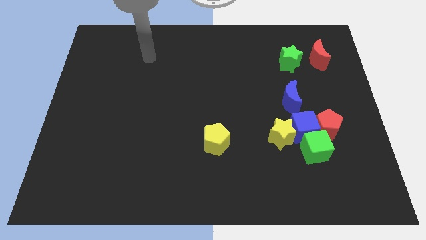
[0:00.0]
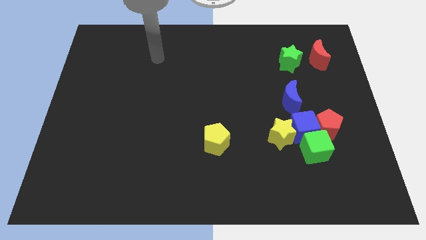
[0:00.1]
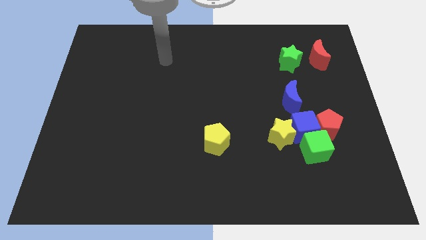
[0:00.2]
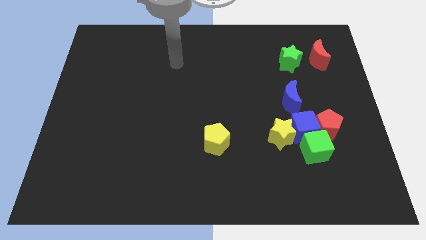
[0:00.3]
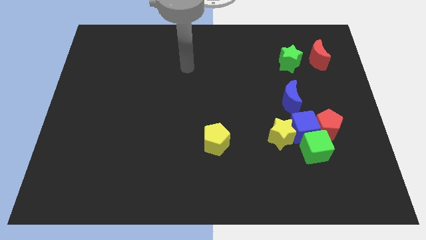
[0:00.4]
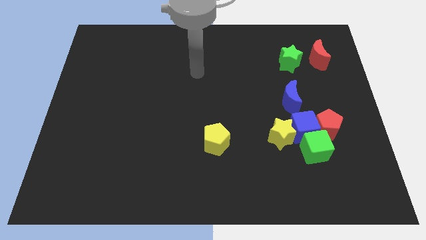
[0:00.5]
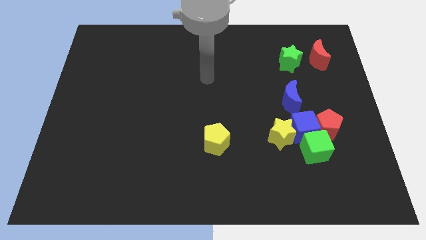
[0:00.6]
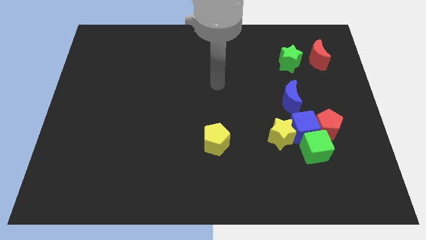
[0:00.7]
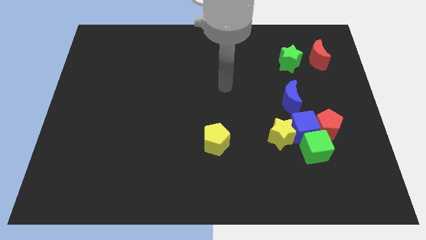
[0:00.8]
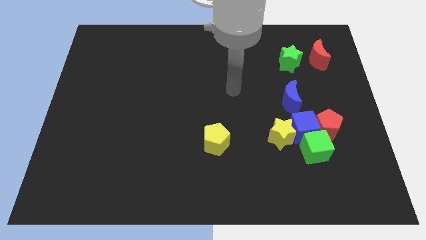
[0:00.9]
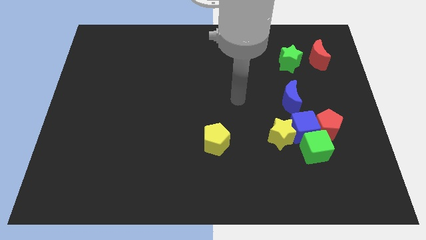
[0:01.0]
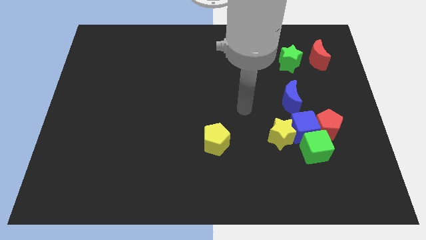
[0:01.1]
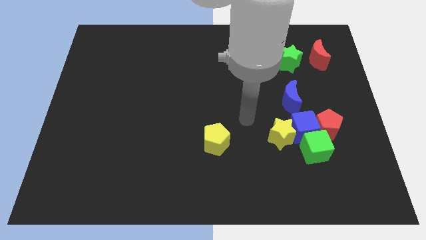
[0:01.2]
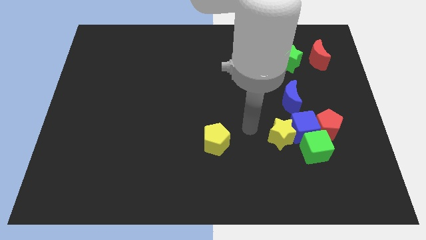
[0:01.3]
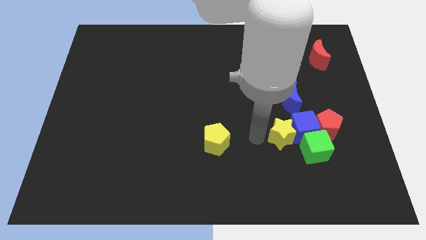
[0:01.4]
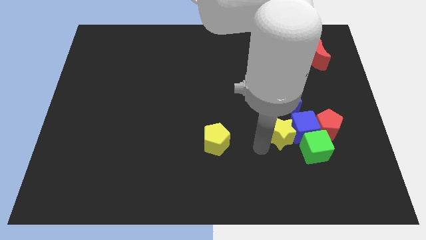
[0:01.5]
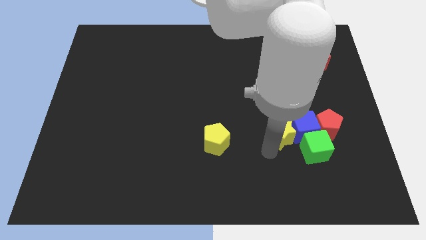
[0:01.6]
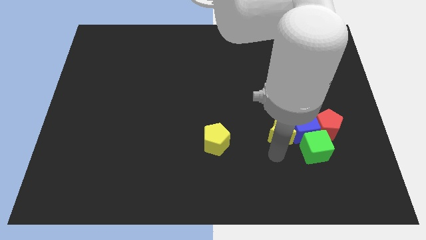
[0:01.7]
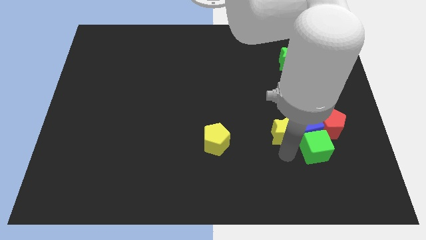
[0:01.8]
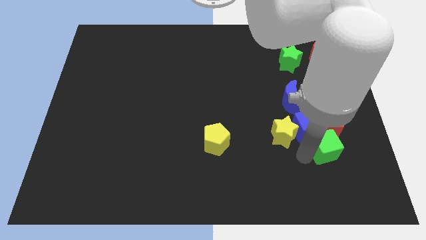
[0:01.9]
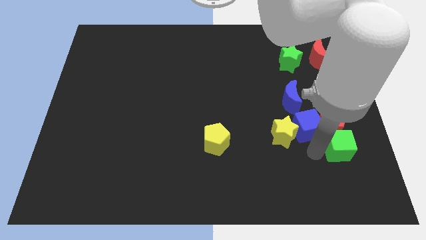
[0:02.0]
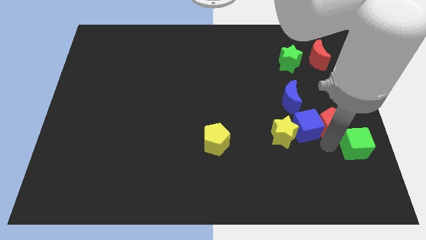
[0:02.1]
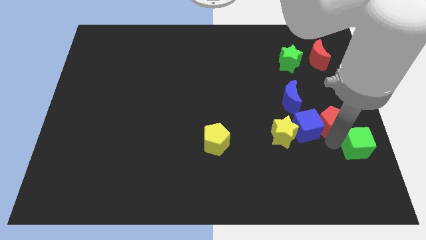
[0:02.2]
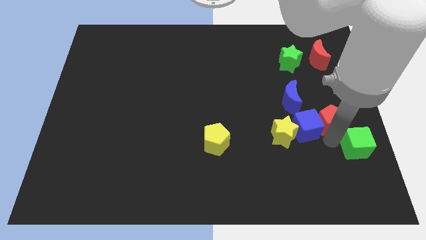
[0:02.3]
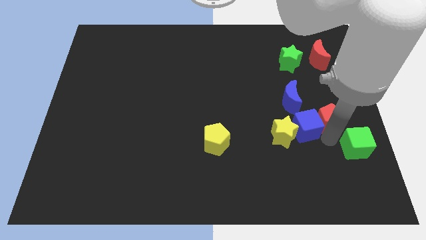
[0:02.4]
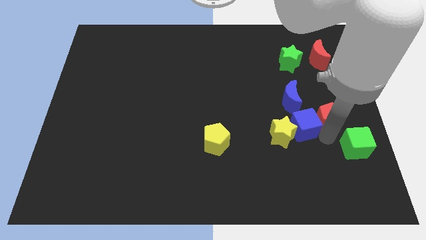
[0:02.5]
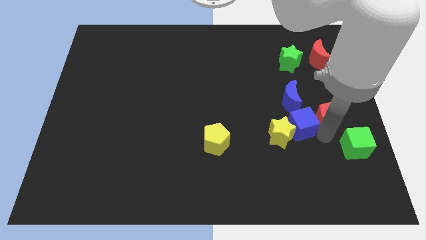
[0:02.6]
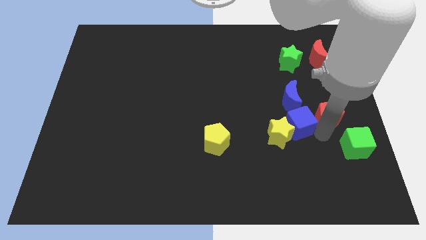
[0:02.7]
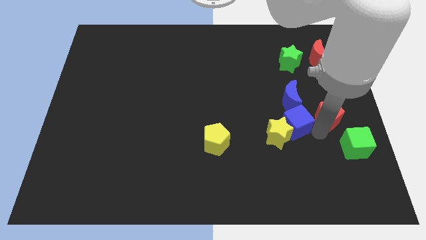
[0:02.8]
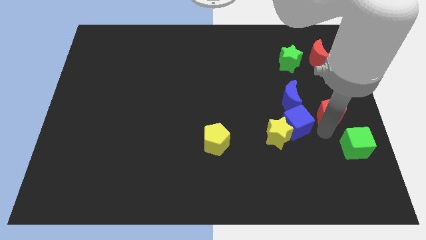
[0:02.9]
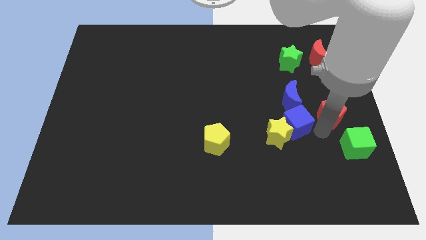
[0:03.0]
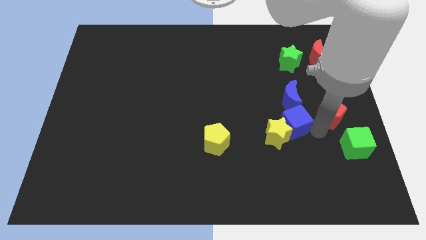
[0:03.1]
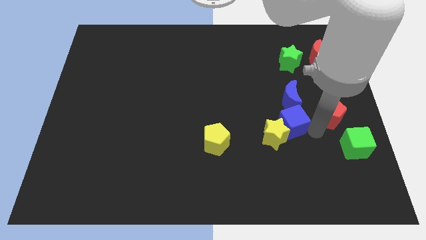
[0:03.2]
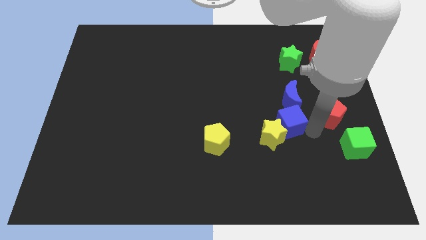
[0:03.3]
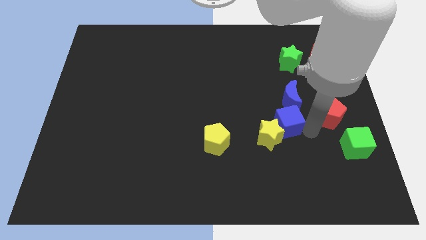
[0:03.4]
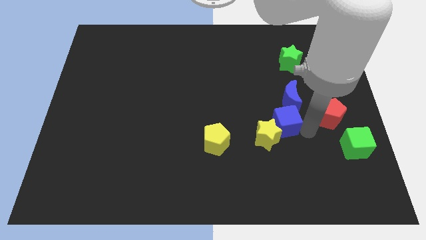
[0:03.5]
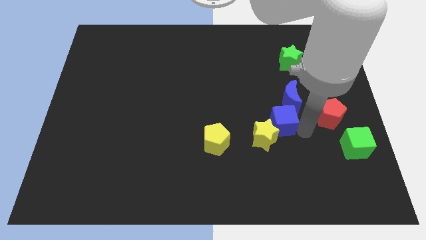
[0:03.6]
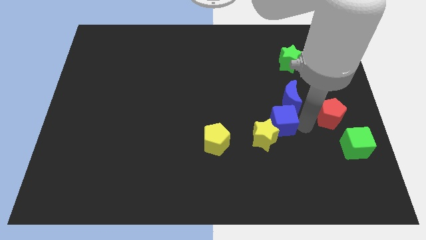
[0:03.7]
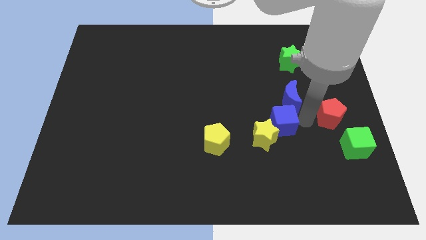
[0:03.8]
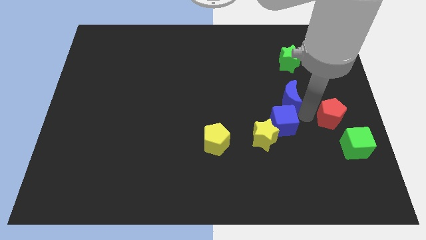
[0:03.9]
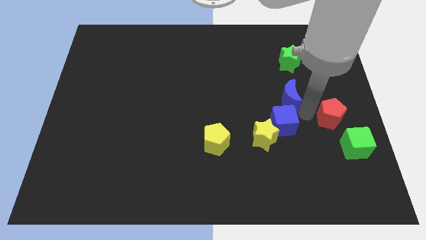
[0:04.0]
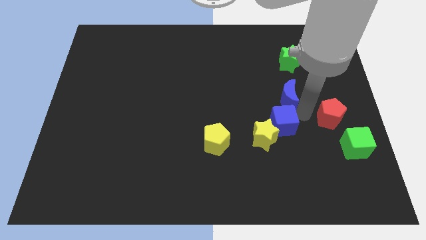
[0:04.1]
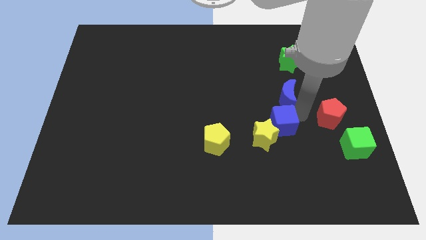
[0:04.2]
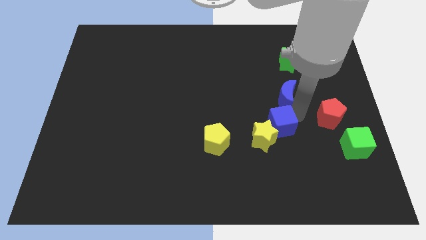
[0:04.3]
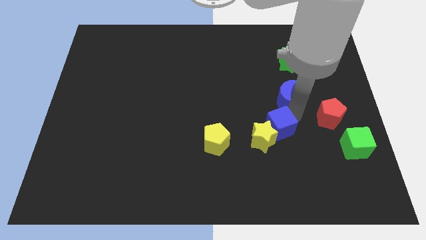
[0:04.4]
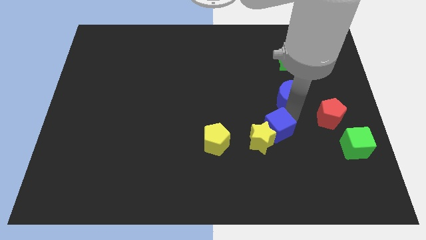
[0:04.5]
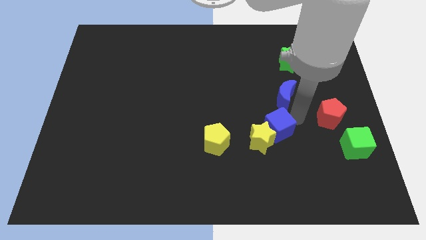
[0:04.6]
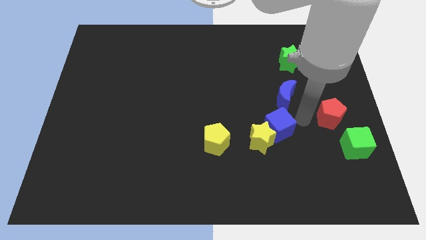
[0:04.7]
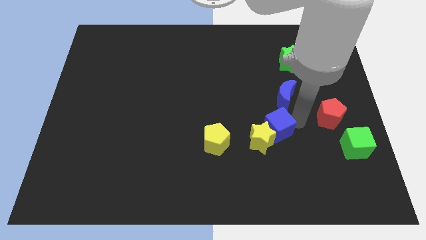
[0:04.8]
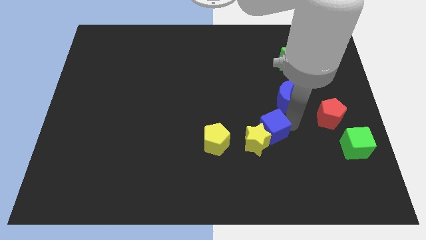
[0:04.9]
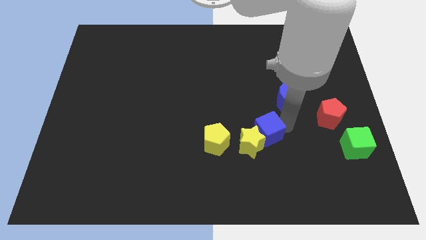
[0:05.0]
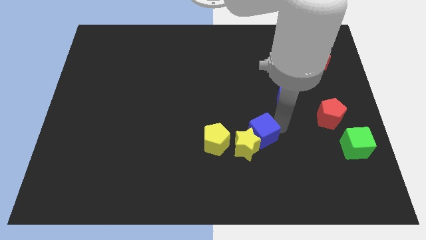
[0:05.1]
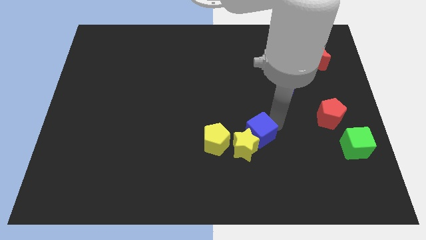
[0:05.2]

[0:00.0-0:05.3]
pull the blue cube apart from the group of blocks

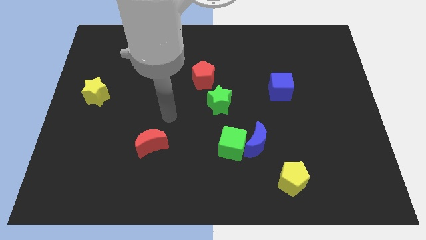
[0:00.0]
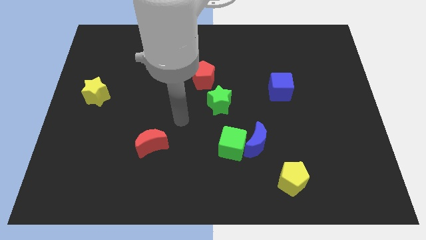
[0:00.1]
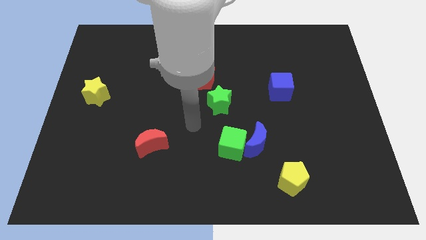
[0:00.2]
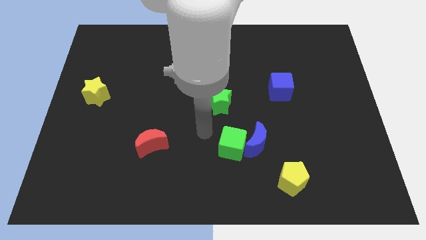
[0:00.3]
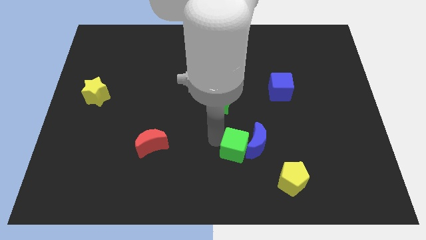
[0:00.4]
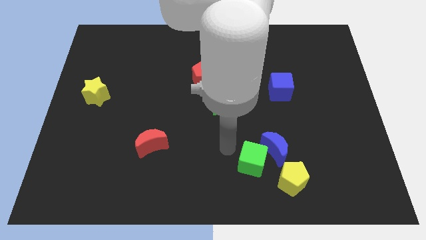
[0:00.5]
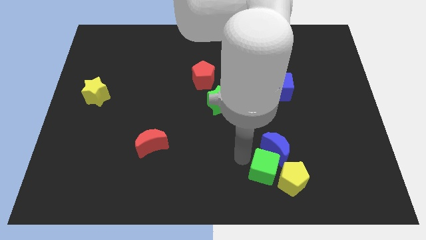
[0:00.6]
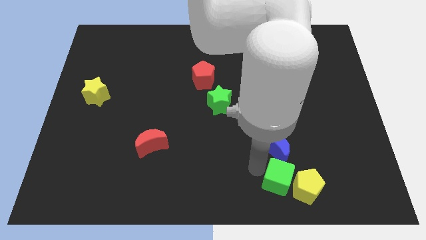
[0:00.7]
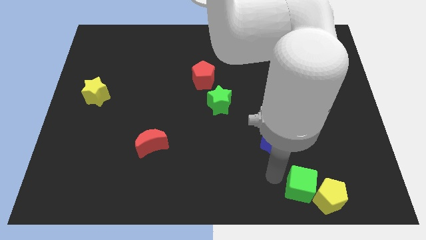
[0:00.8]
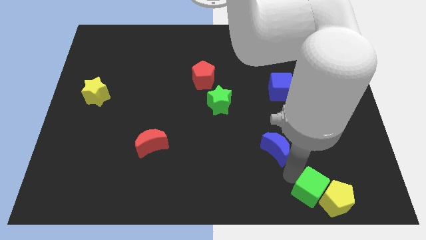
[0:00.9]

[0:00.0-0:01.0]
pull the blue moon apart from the green cube

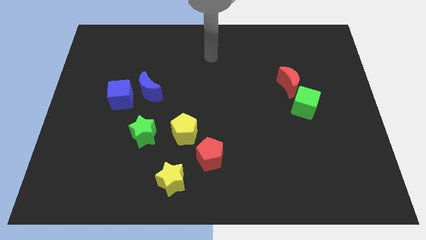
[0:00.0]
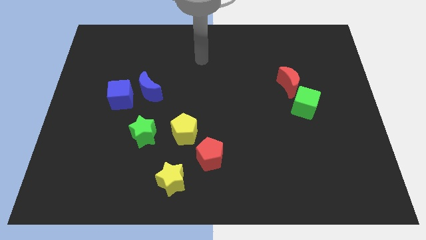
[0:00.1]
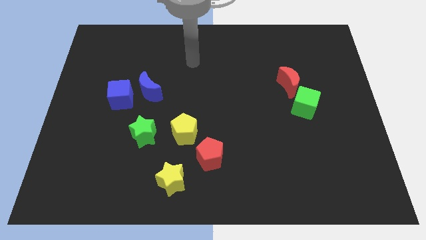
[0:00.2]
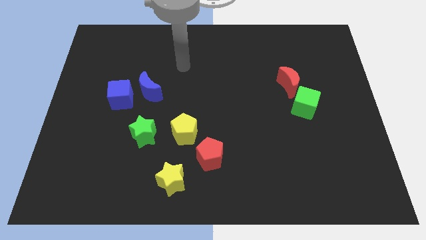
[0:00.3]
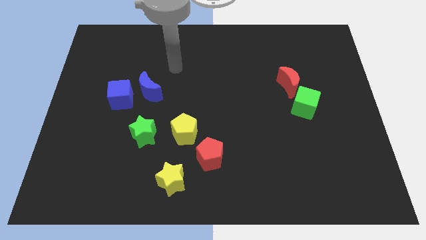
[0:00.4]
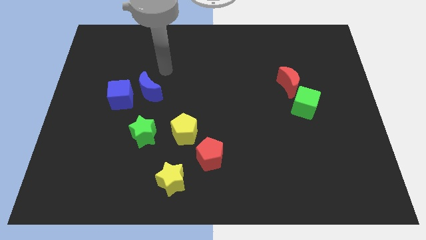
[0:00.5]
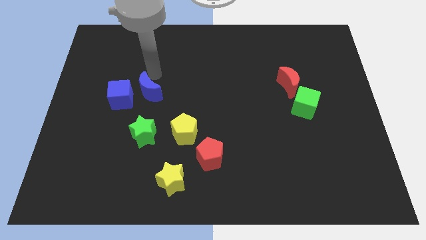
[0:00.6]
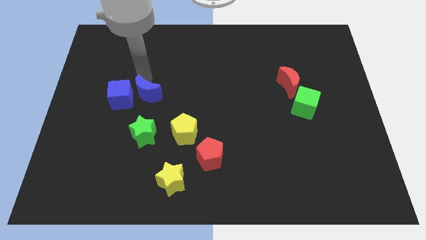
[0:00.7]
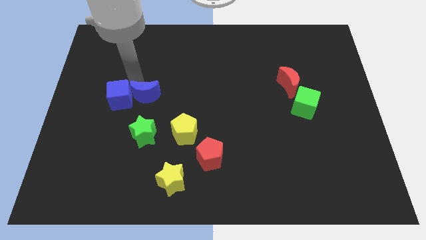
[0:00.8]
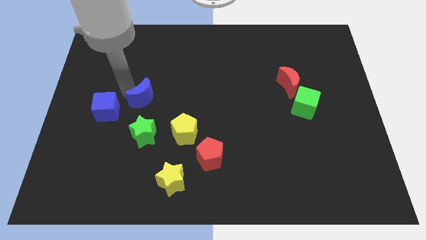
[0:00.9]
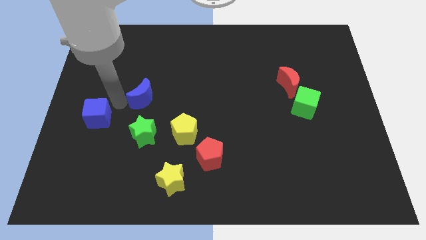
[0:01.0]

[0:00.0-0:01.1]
pull the blue moon apart from the blue cube

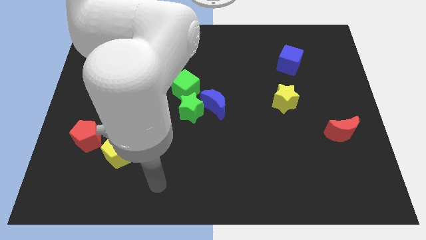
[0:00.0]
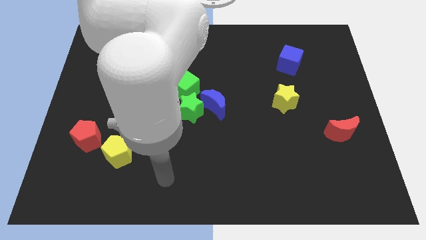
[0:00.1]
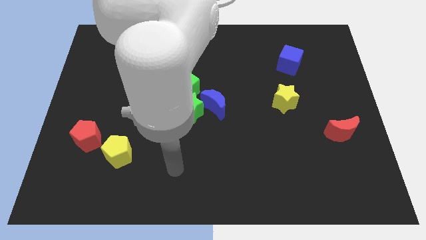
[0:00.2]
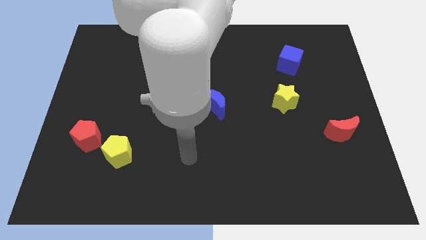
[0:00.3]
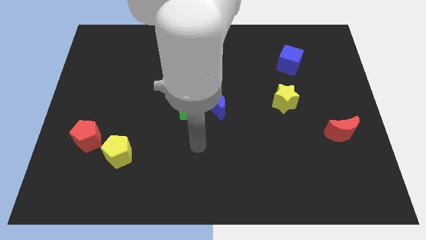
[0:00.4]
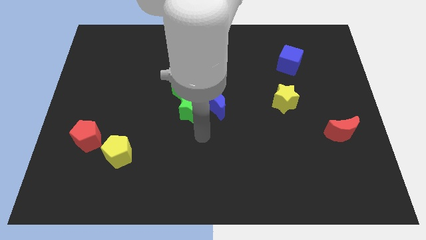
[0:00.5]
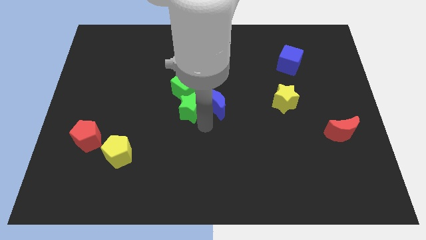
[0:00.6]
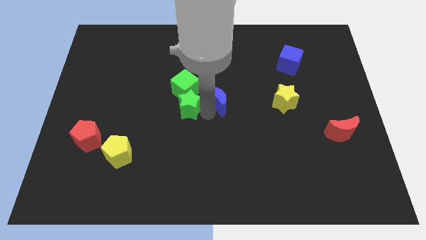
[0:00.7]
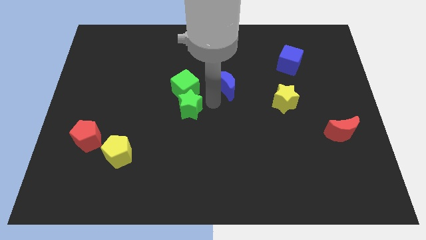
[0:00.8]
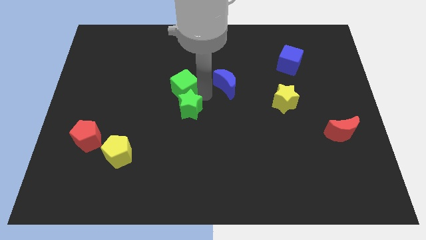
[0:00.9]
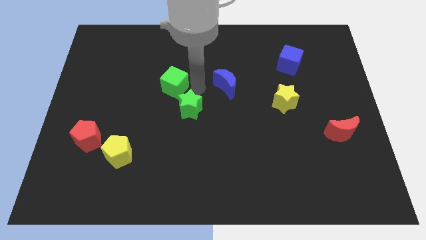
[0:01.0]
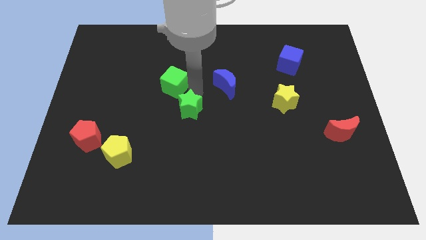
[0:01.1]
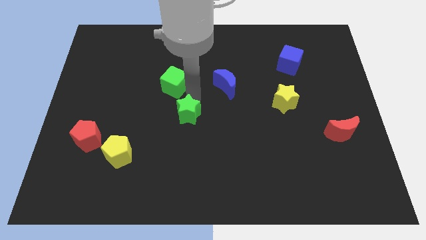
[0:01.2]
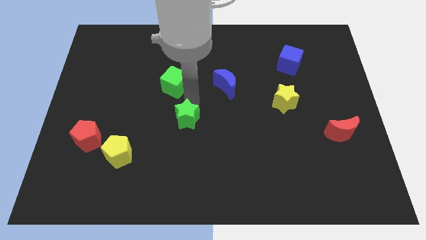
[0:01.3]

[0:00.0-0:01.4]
pull the green star apart from the blue moon and green cube

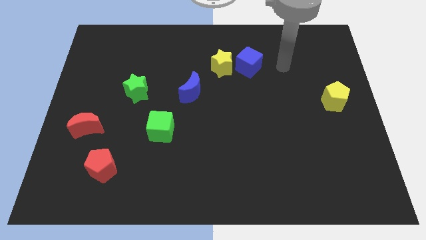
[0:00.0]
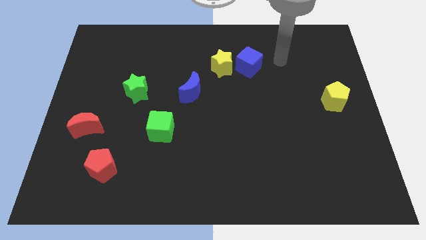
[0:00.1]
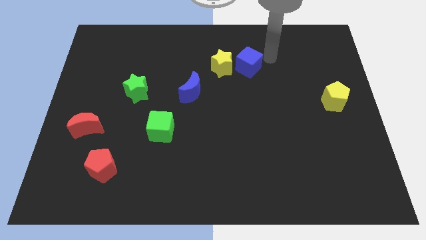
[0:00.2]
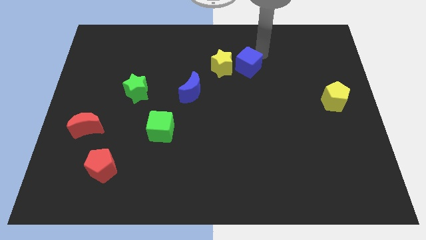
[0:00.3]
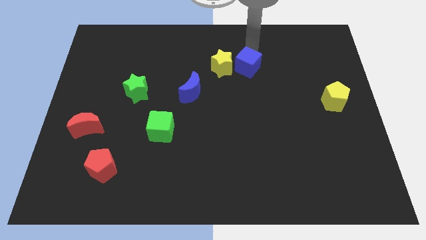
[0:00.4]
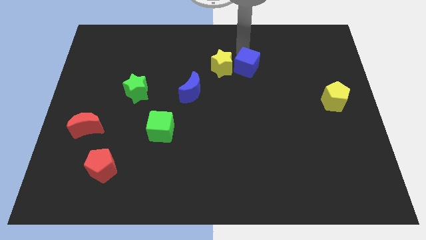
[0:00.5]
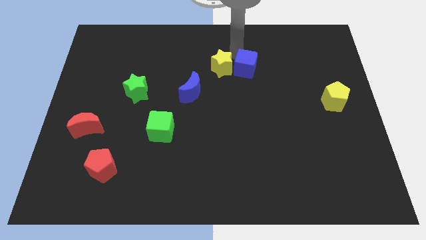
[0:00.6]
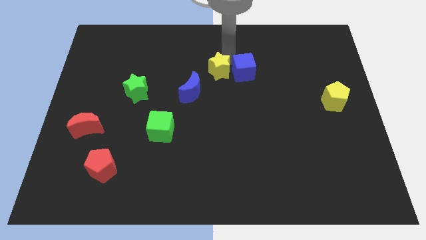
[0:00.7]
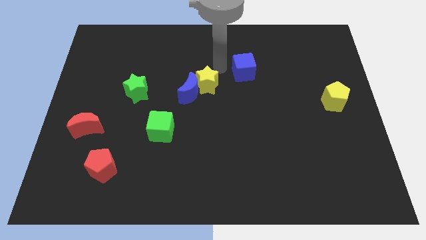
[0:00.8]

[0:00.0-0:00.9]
pull the blue cube apart from the yellow star
